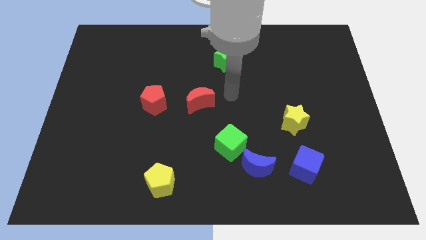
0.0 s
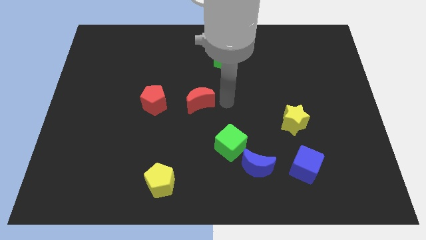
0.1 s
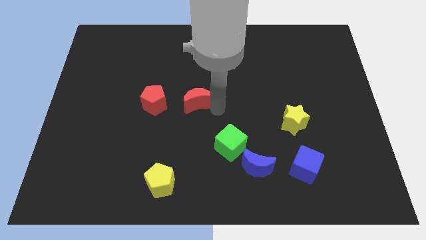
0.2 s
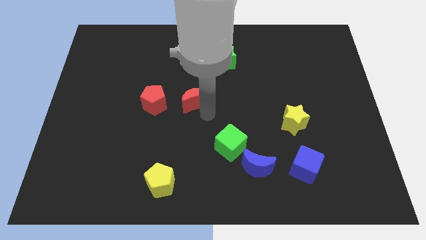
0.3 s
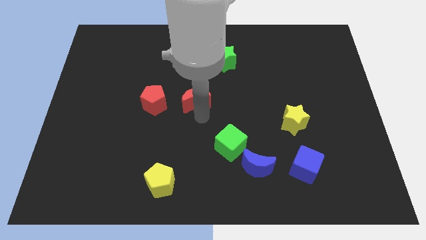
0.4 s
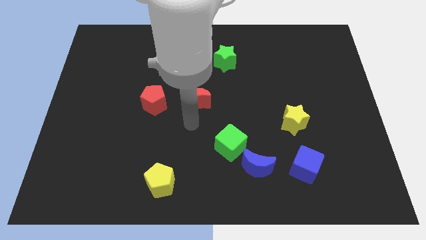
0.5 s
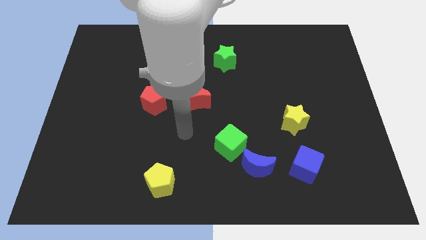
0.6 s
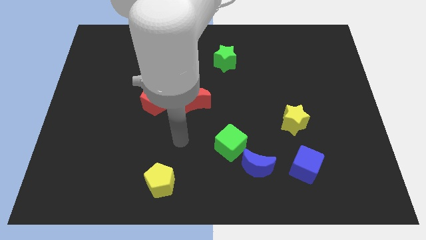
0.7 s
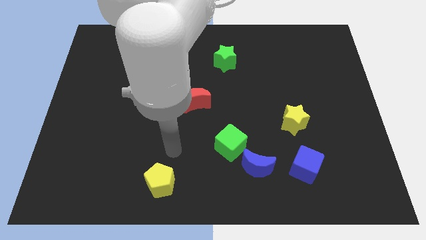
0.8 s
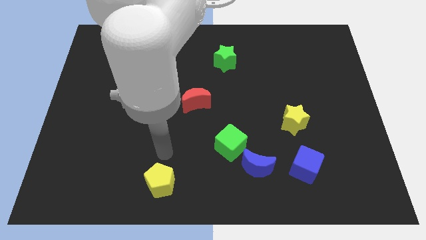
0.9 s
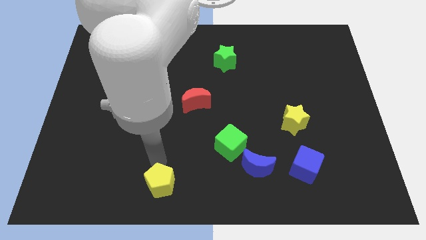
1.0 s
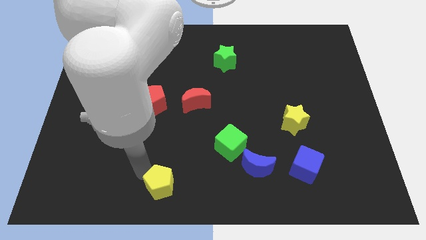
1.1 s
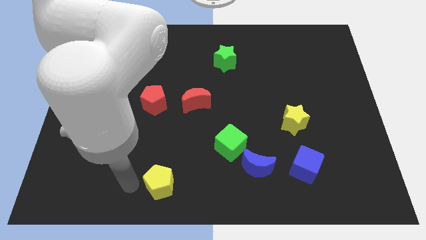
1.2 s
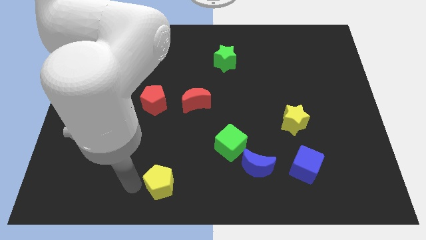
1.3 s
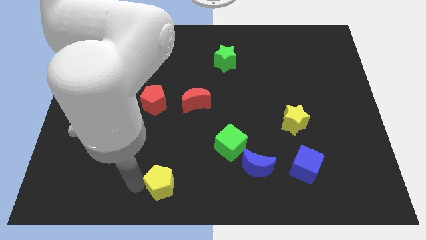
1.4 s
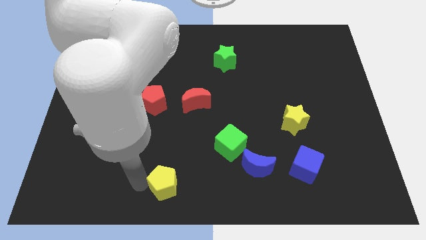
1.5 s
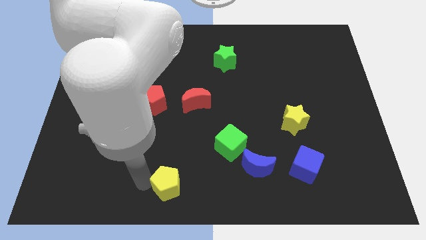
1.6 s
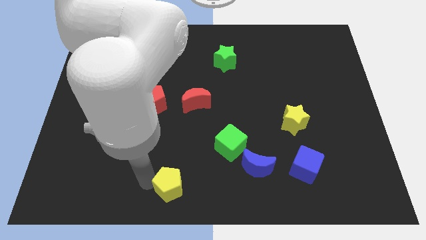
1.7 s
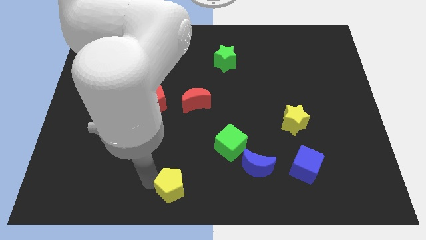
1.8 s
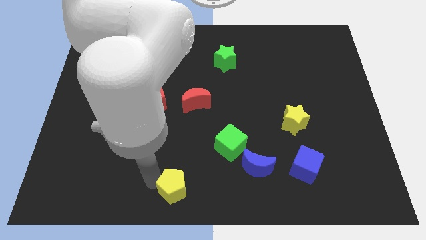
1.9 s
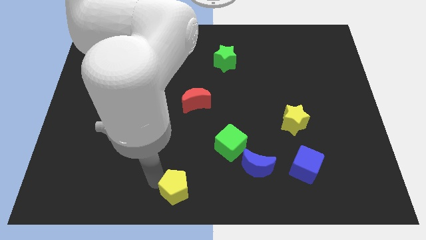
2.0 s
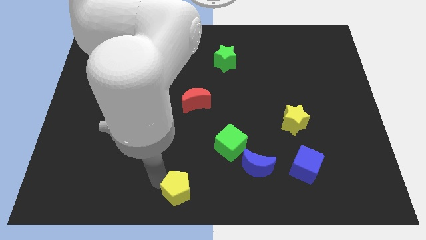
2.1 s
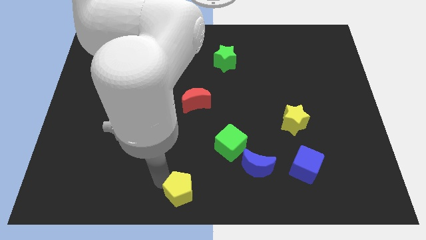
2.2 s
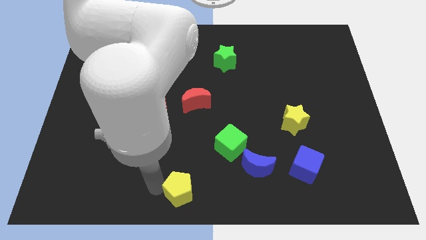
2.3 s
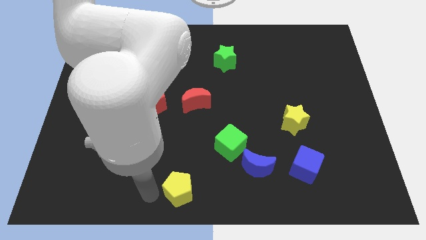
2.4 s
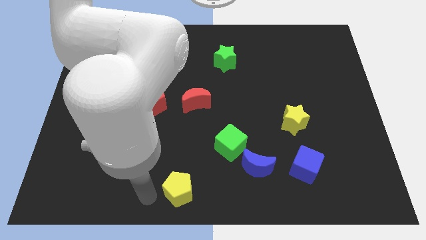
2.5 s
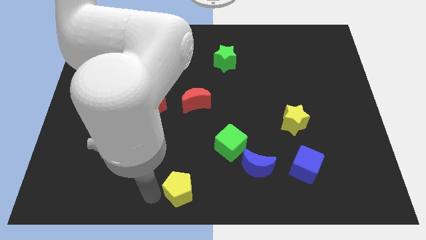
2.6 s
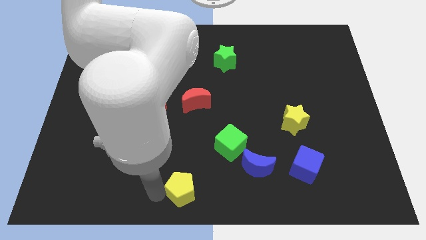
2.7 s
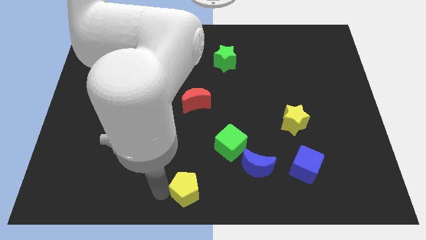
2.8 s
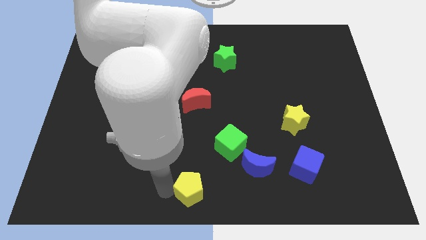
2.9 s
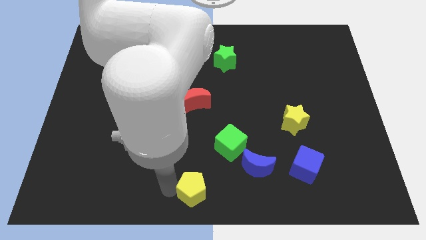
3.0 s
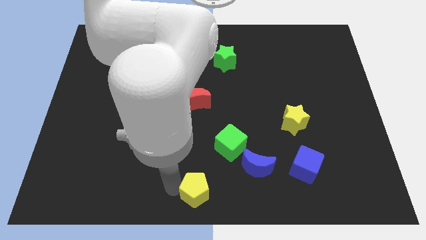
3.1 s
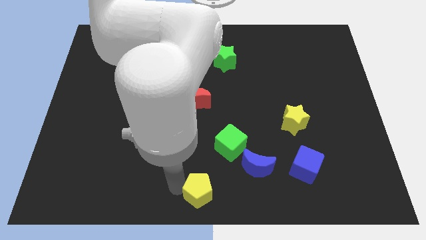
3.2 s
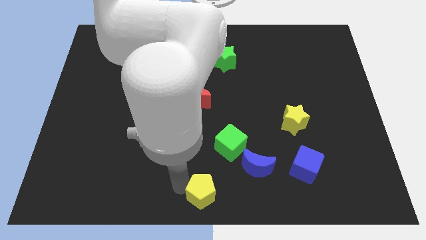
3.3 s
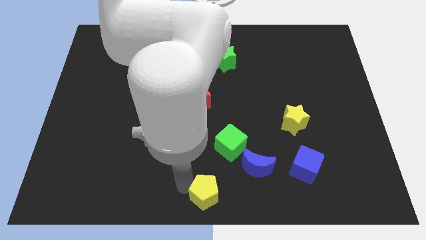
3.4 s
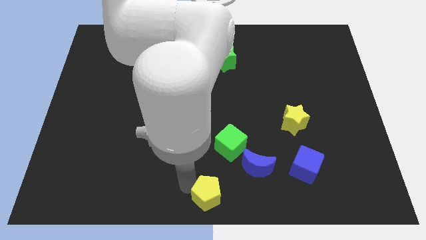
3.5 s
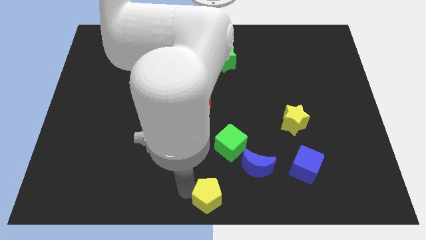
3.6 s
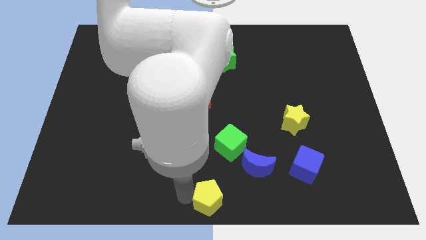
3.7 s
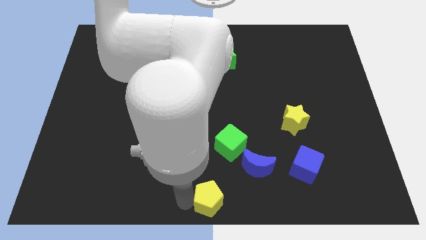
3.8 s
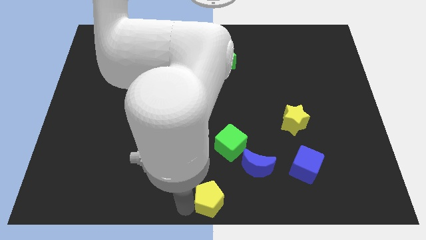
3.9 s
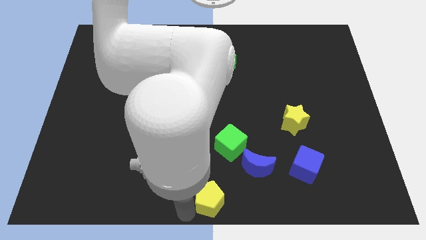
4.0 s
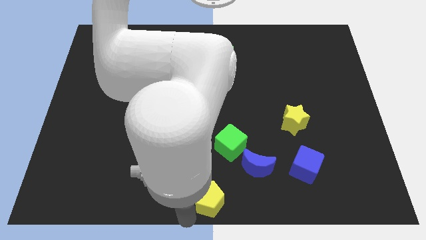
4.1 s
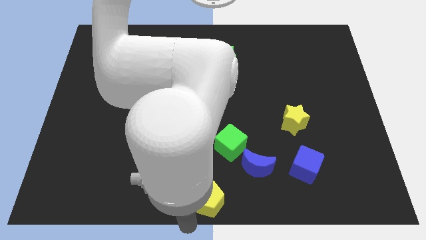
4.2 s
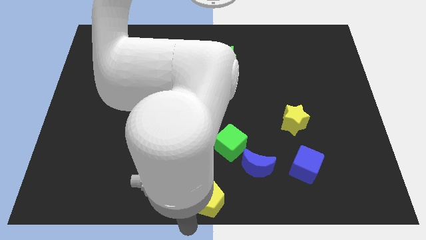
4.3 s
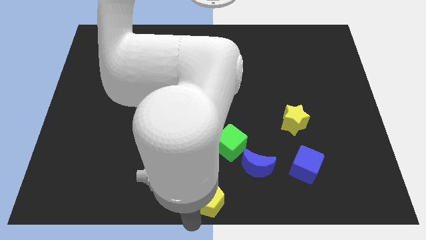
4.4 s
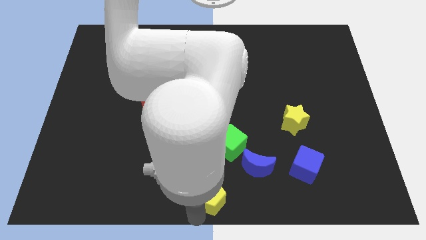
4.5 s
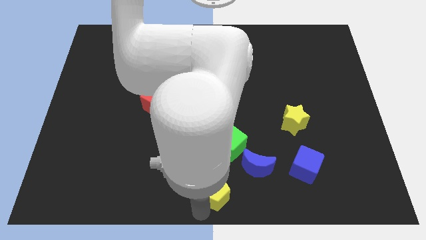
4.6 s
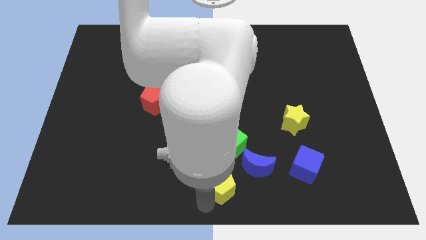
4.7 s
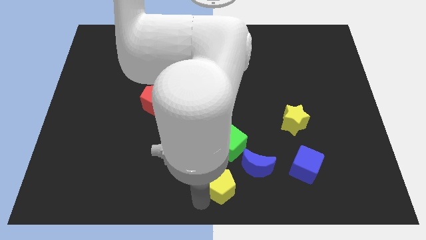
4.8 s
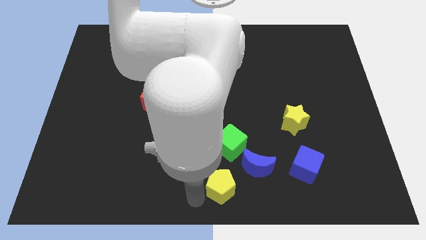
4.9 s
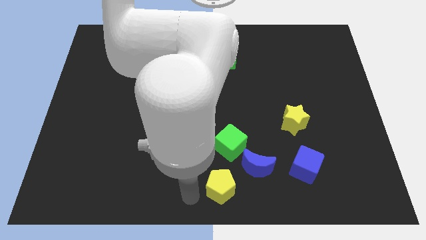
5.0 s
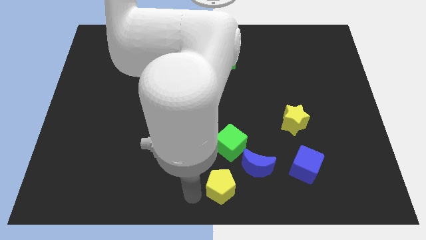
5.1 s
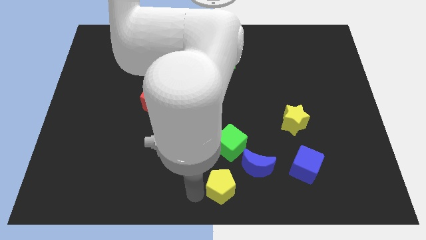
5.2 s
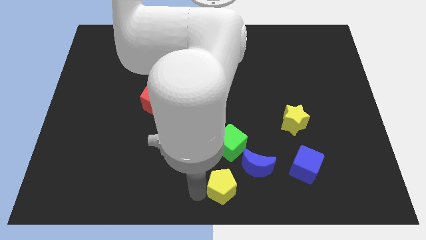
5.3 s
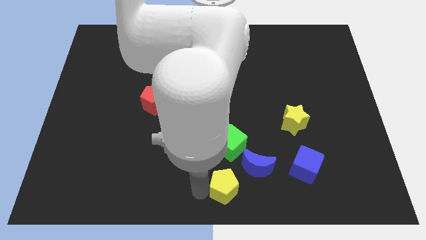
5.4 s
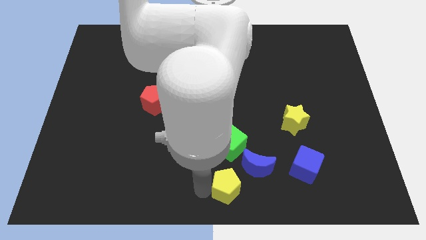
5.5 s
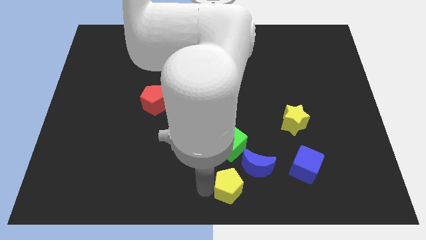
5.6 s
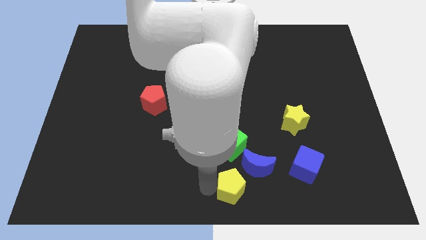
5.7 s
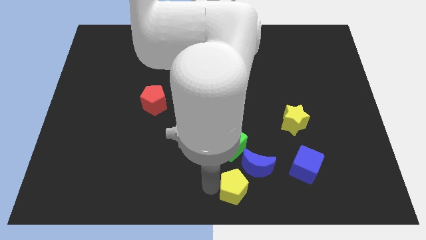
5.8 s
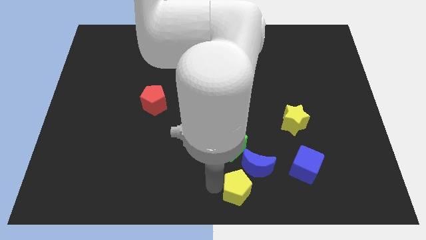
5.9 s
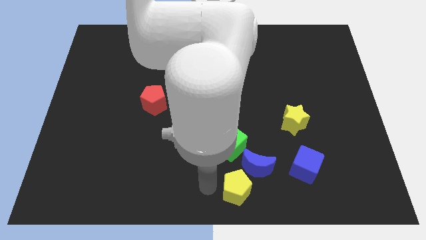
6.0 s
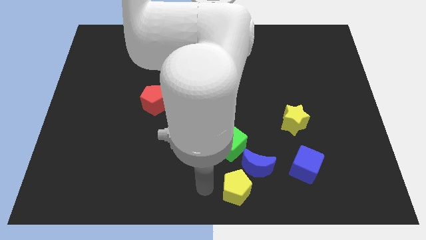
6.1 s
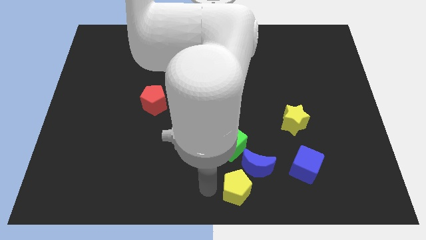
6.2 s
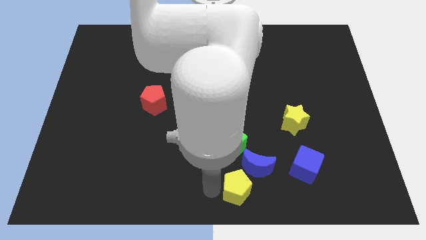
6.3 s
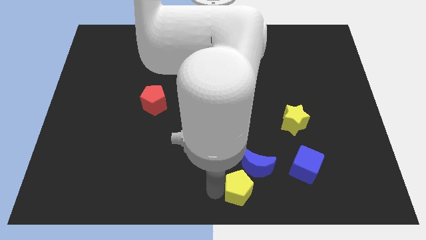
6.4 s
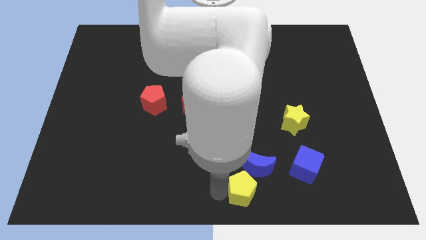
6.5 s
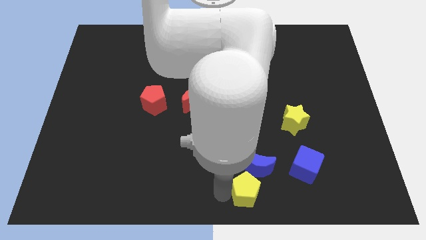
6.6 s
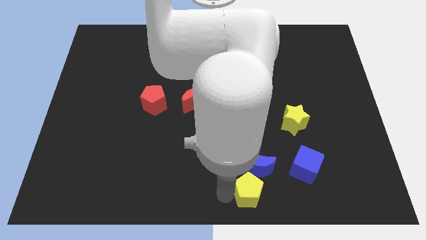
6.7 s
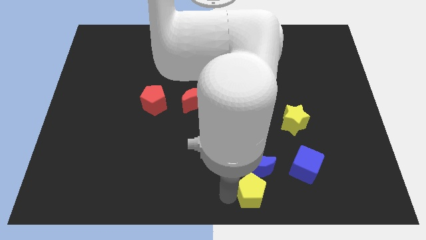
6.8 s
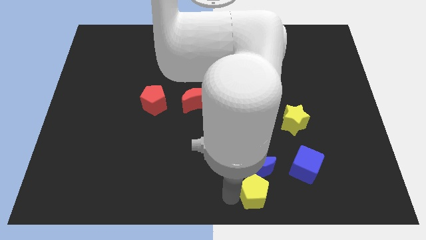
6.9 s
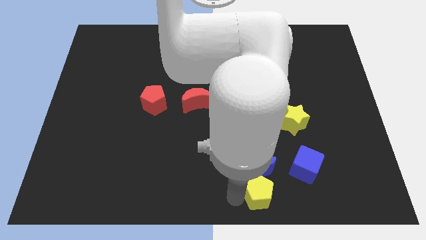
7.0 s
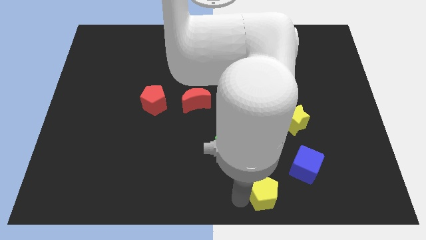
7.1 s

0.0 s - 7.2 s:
push the yellow pentagon to the right

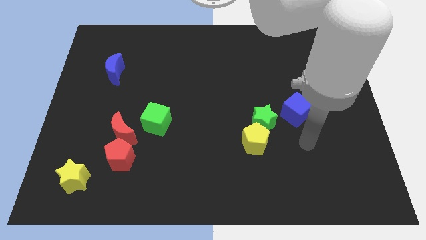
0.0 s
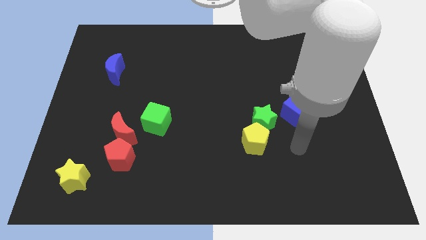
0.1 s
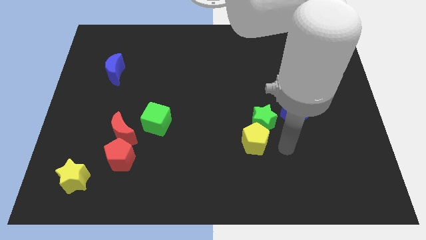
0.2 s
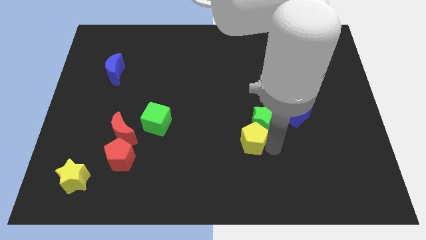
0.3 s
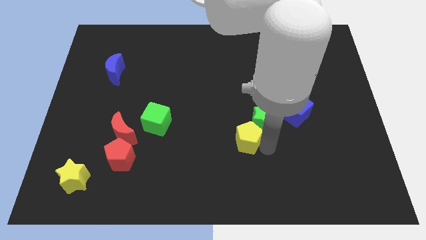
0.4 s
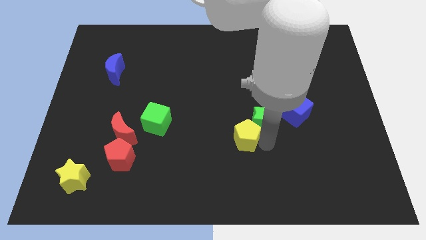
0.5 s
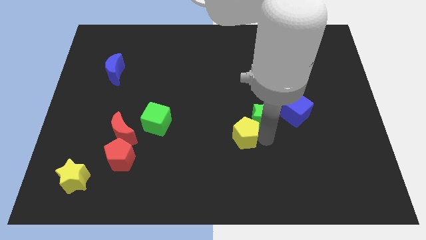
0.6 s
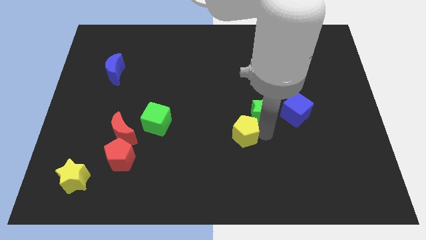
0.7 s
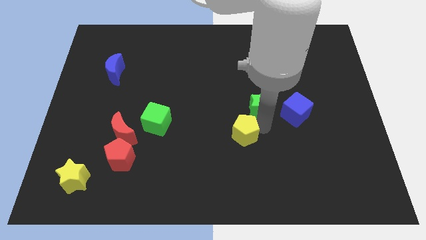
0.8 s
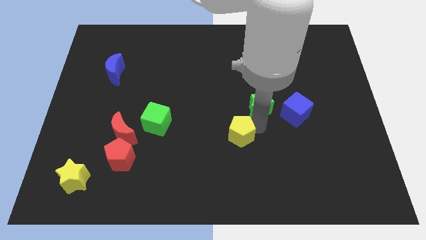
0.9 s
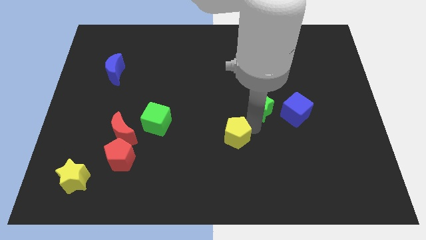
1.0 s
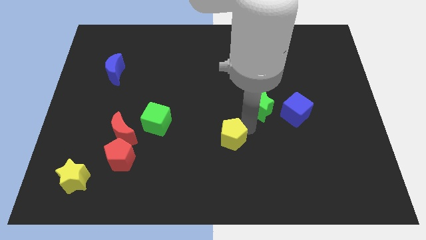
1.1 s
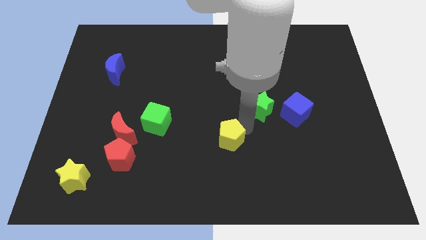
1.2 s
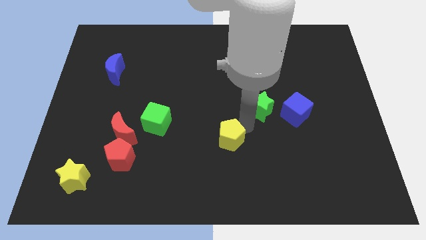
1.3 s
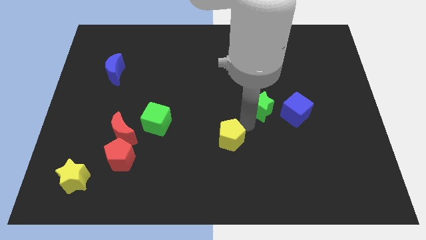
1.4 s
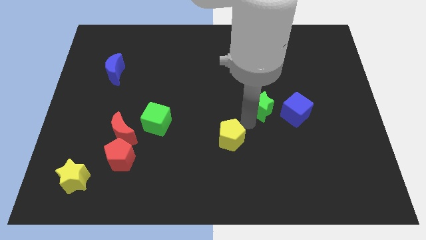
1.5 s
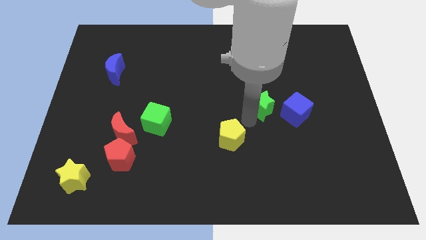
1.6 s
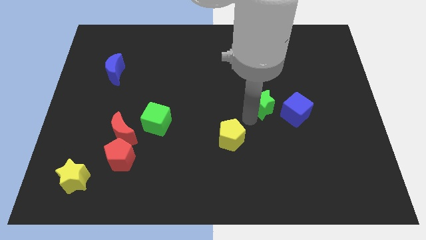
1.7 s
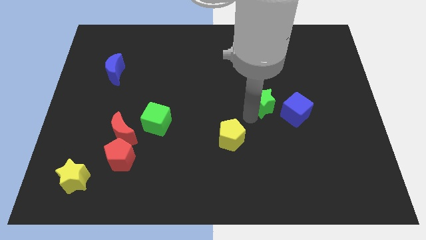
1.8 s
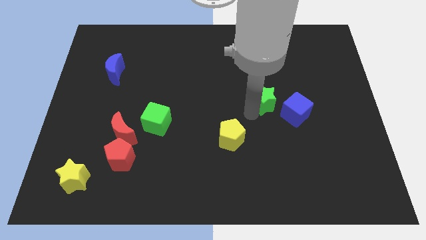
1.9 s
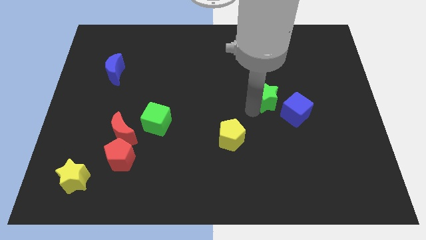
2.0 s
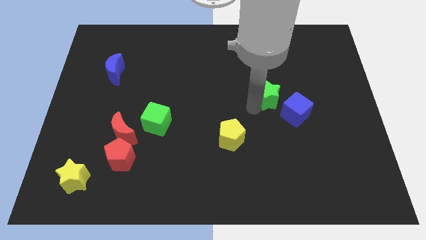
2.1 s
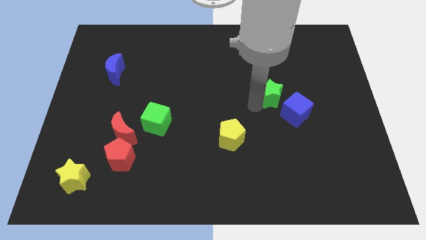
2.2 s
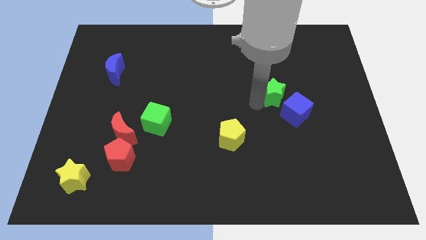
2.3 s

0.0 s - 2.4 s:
slightly push the green star upwards and to the right diagonally
